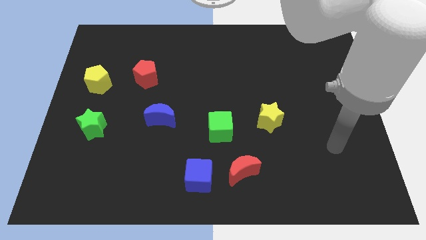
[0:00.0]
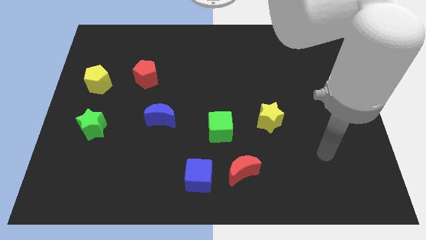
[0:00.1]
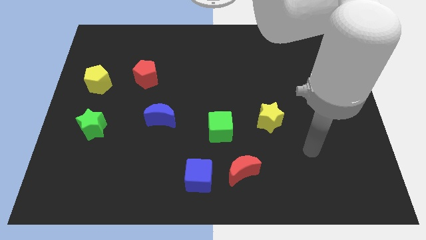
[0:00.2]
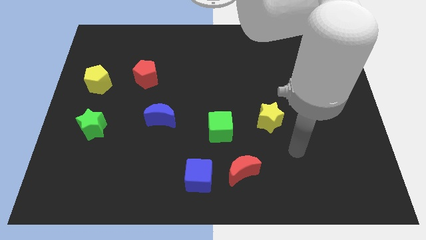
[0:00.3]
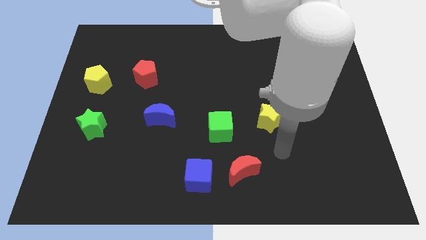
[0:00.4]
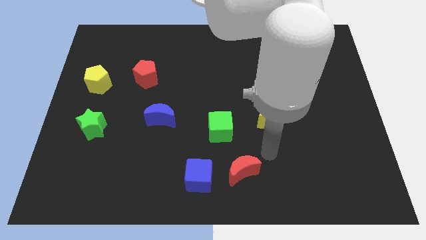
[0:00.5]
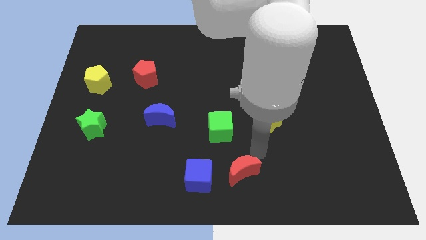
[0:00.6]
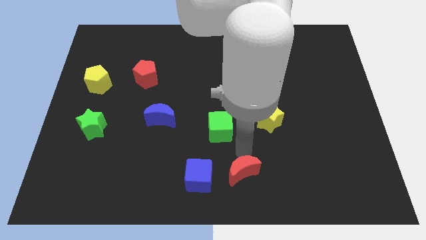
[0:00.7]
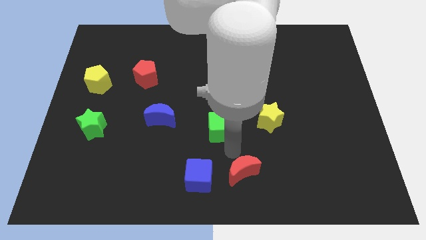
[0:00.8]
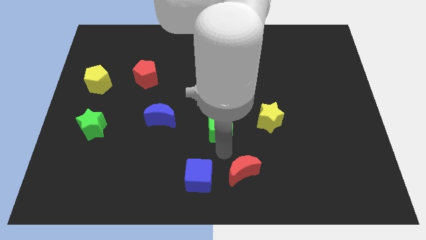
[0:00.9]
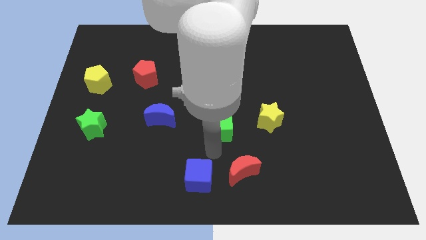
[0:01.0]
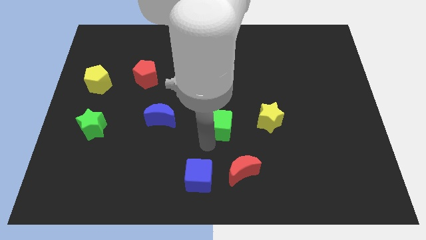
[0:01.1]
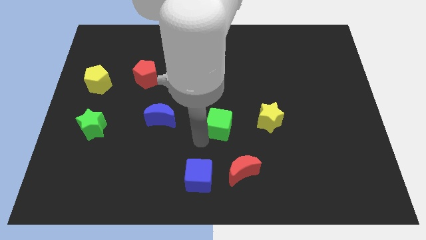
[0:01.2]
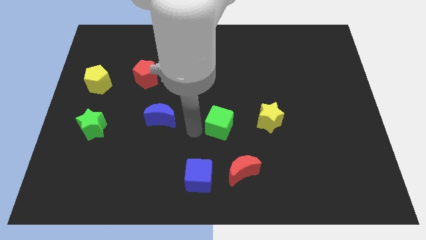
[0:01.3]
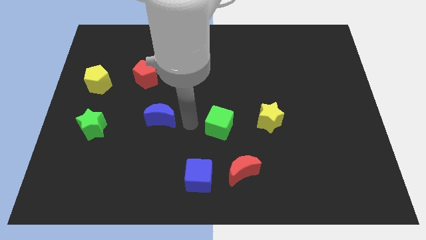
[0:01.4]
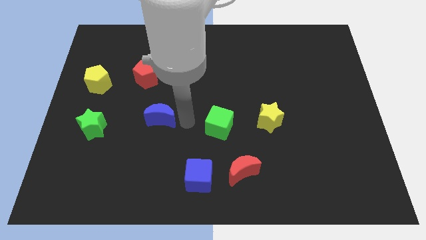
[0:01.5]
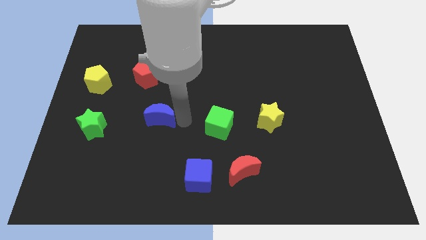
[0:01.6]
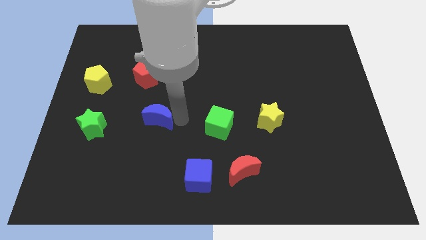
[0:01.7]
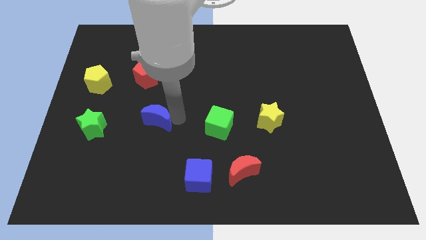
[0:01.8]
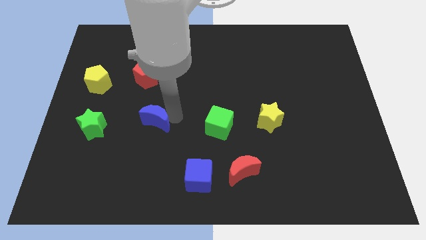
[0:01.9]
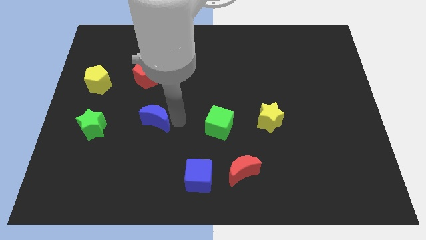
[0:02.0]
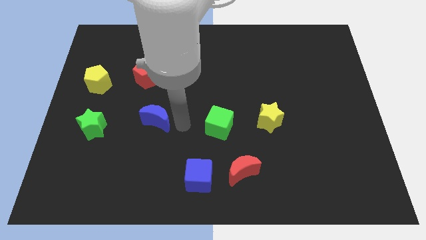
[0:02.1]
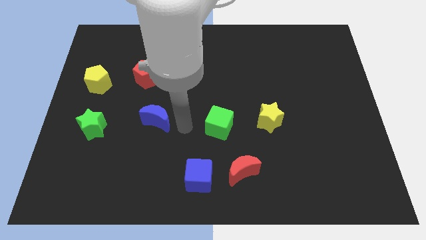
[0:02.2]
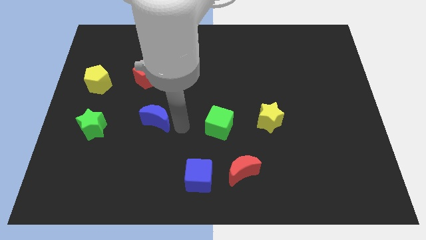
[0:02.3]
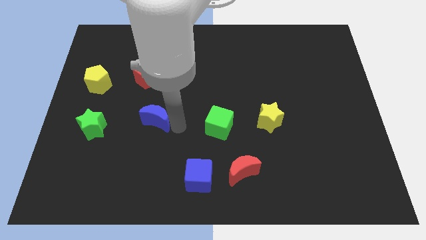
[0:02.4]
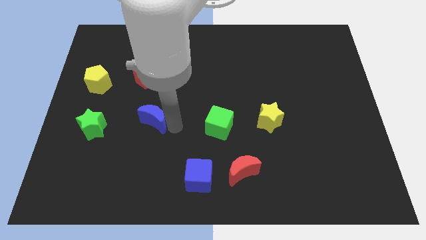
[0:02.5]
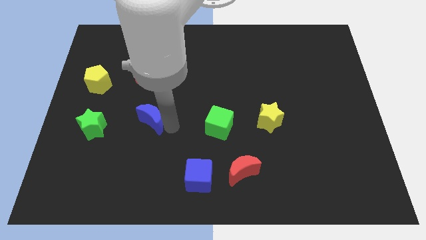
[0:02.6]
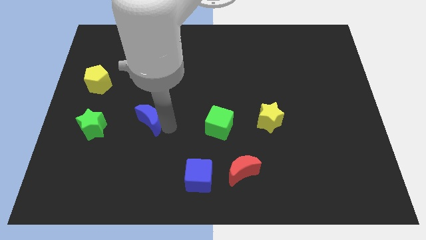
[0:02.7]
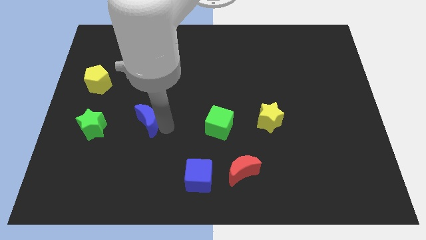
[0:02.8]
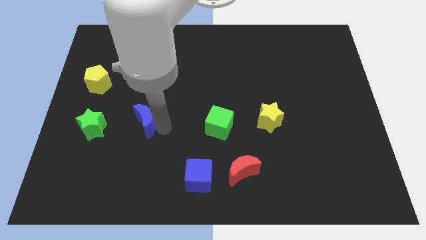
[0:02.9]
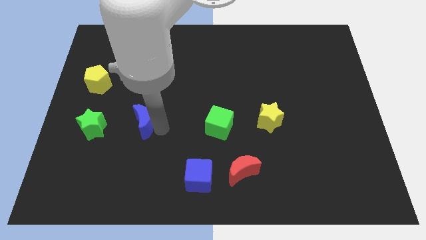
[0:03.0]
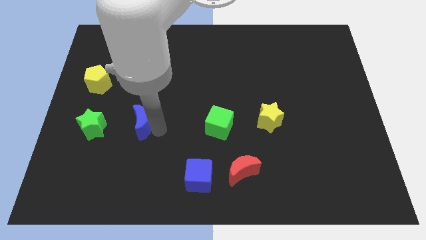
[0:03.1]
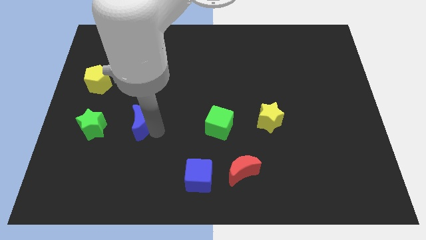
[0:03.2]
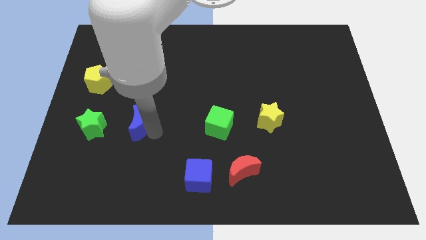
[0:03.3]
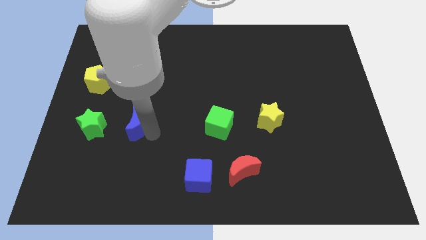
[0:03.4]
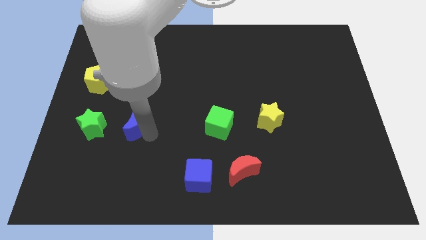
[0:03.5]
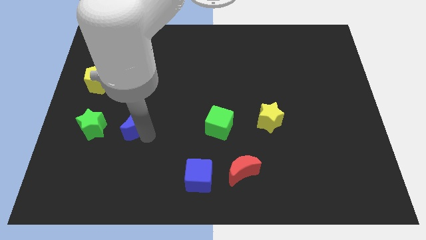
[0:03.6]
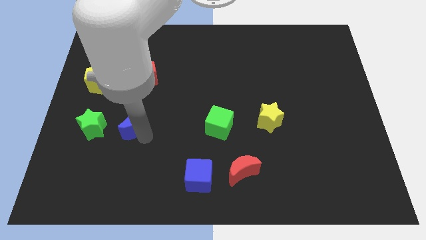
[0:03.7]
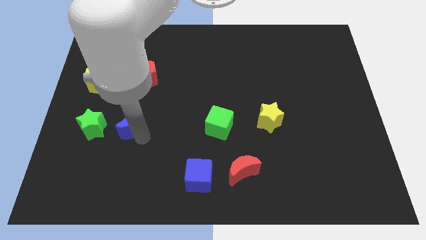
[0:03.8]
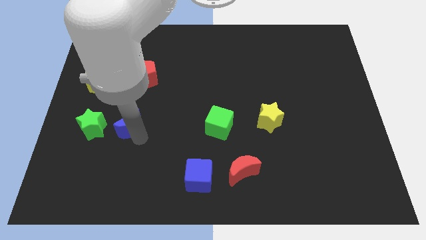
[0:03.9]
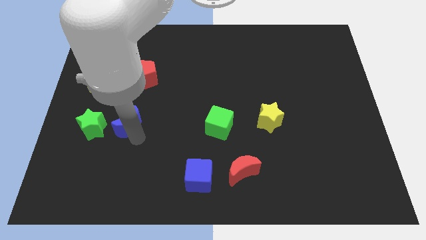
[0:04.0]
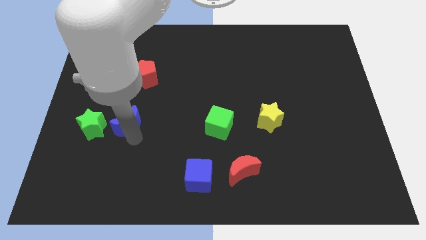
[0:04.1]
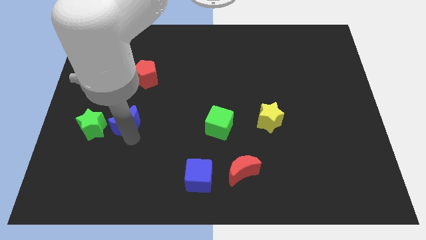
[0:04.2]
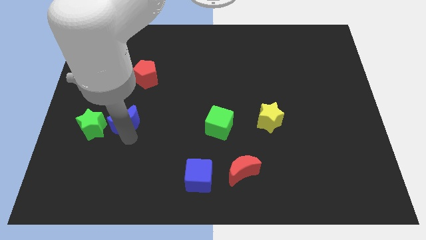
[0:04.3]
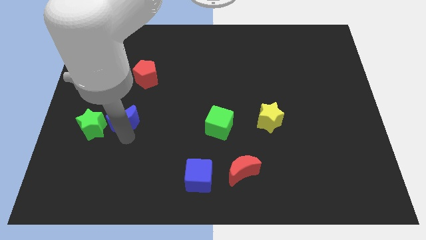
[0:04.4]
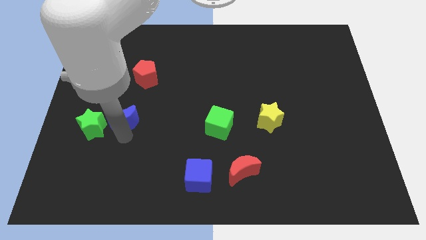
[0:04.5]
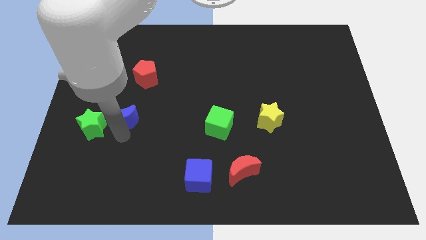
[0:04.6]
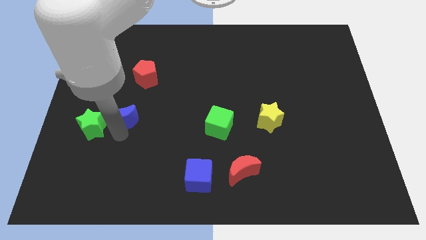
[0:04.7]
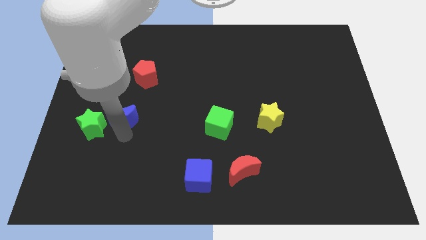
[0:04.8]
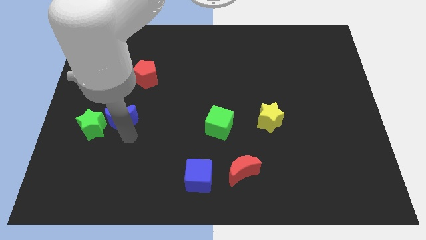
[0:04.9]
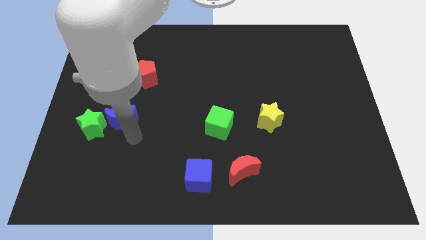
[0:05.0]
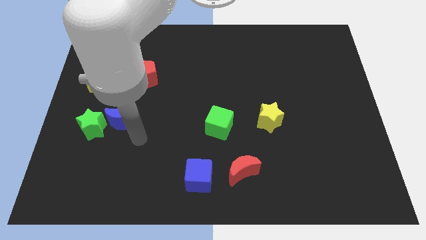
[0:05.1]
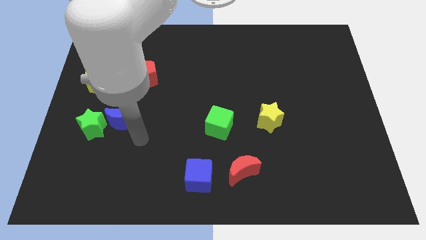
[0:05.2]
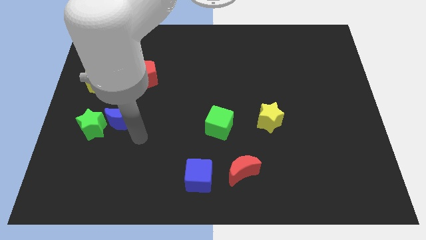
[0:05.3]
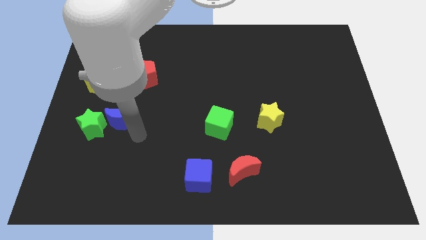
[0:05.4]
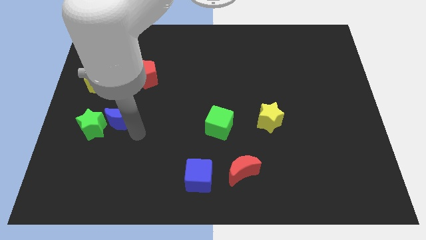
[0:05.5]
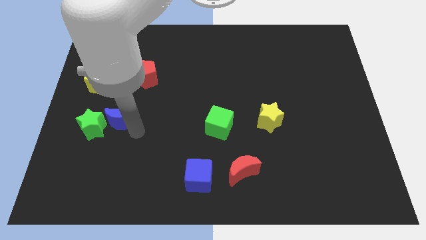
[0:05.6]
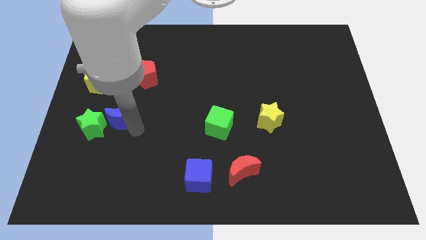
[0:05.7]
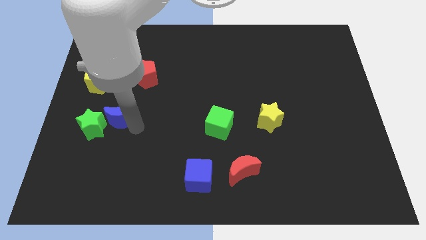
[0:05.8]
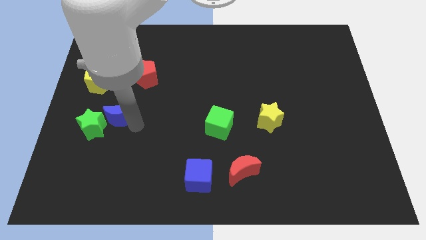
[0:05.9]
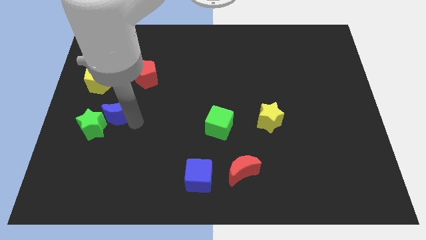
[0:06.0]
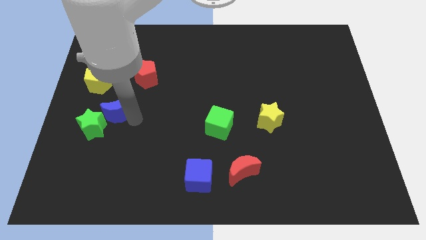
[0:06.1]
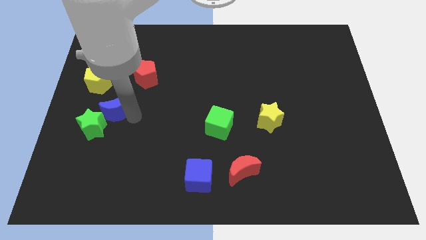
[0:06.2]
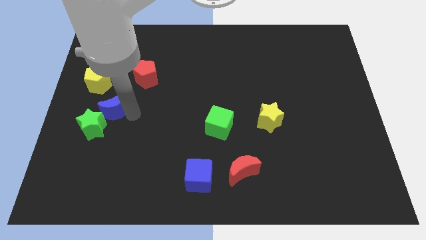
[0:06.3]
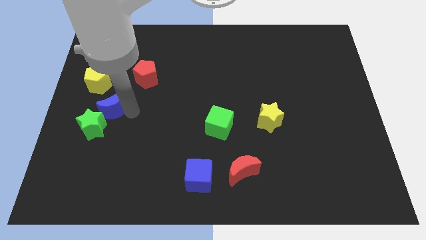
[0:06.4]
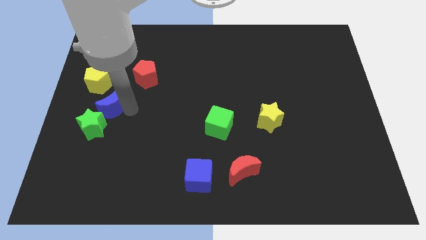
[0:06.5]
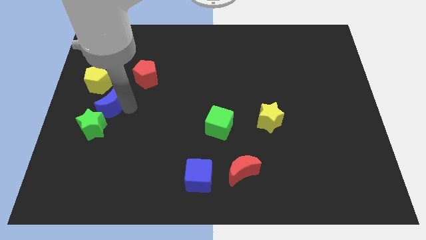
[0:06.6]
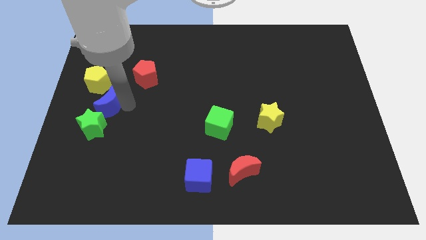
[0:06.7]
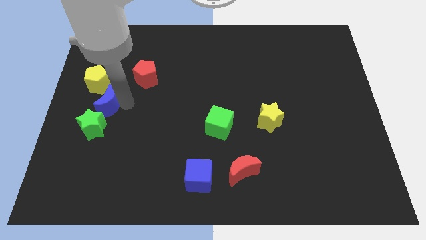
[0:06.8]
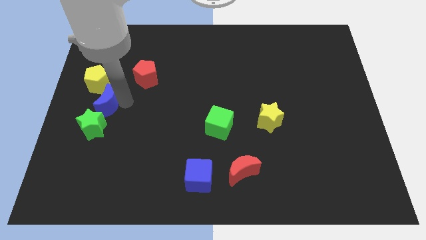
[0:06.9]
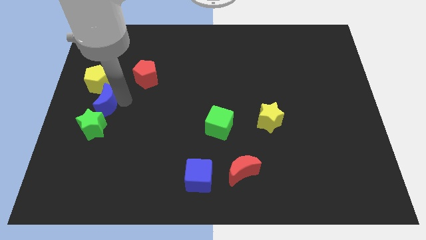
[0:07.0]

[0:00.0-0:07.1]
push the blue moon to the left side of the board

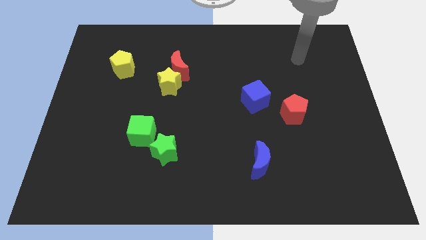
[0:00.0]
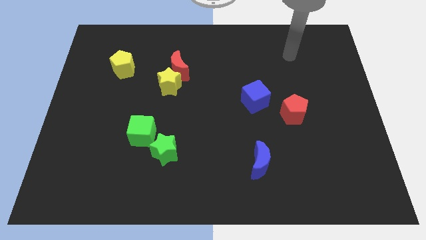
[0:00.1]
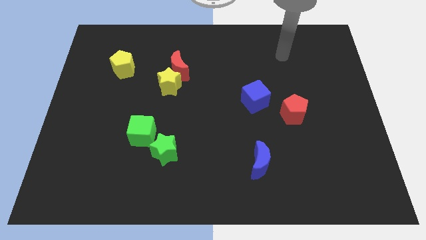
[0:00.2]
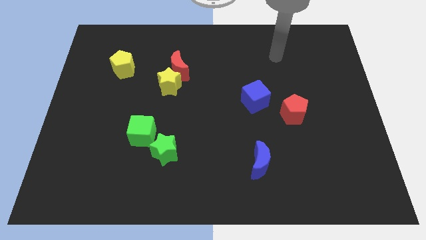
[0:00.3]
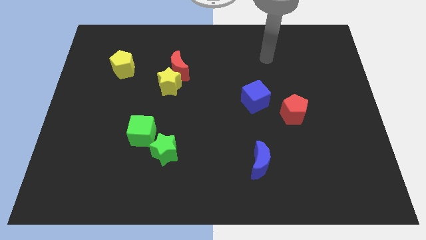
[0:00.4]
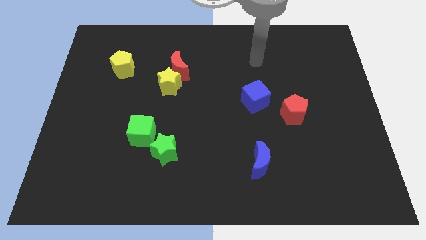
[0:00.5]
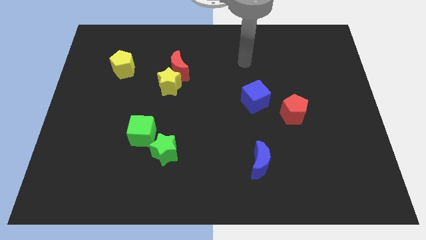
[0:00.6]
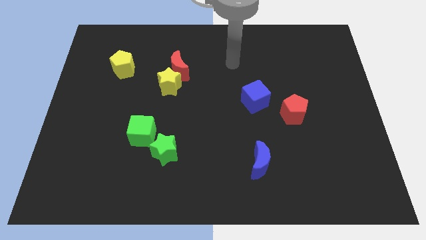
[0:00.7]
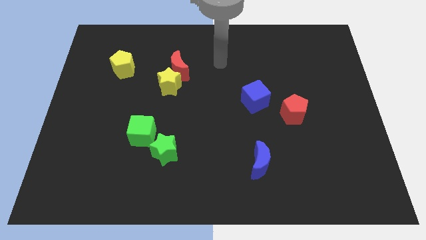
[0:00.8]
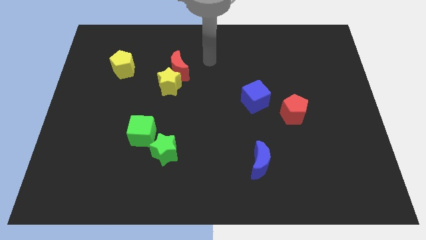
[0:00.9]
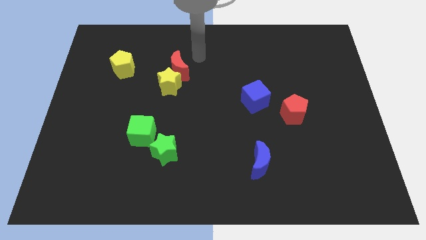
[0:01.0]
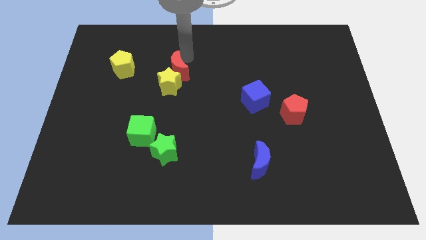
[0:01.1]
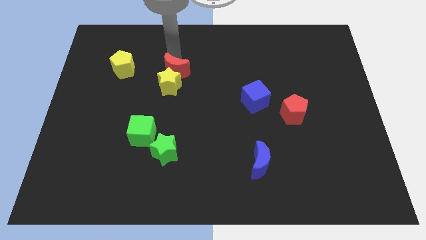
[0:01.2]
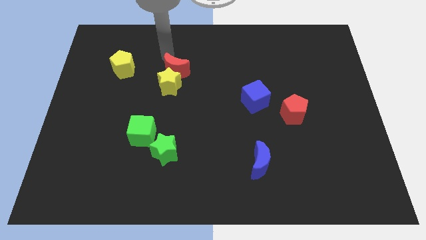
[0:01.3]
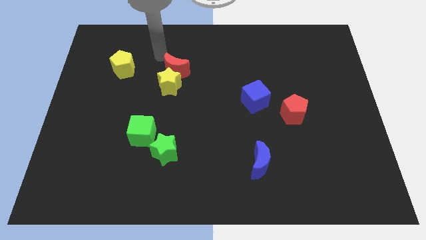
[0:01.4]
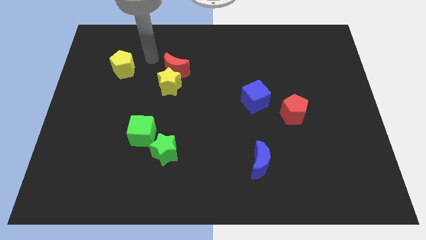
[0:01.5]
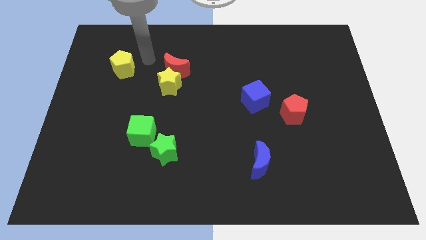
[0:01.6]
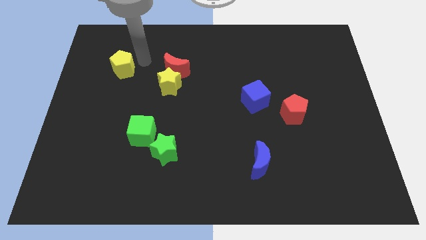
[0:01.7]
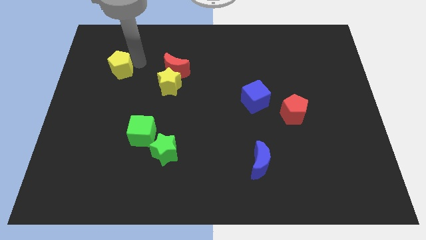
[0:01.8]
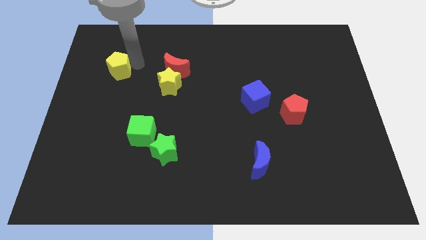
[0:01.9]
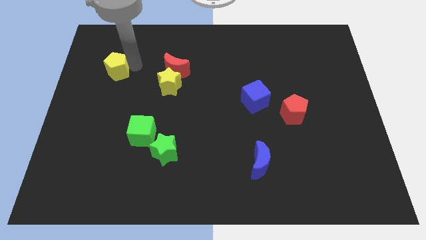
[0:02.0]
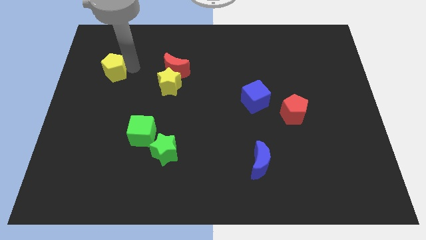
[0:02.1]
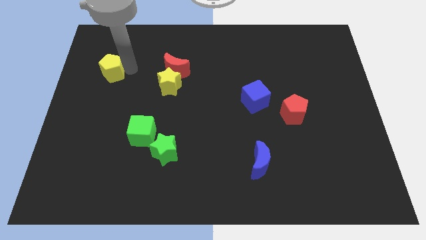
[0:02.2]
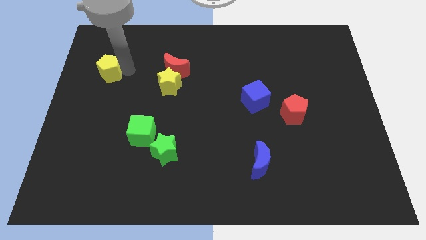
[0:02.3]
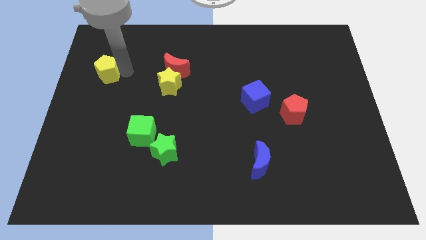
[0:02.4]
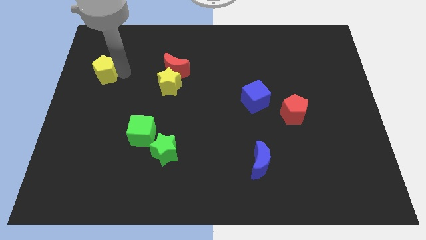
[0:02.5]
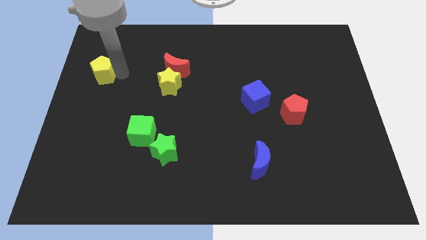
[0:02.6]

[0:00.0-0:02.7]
move the yellow pentagon to the left side of the board
